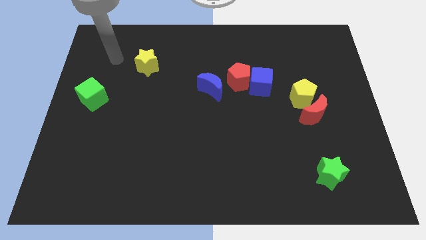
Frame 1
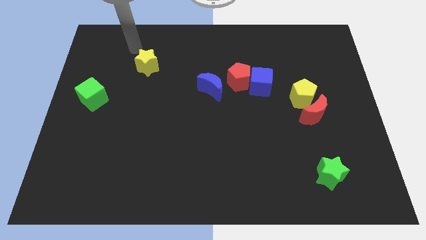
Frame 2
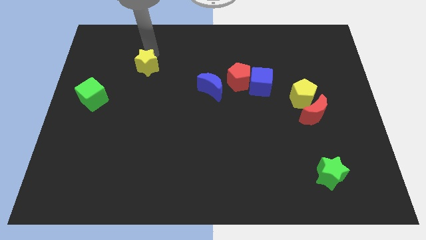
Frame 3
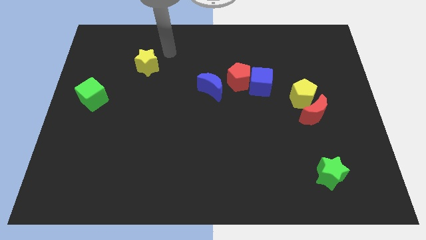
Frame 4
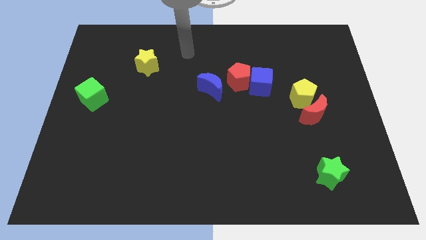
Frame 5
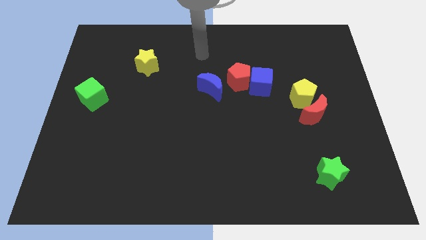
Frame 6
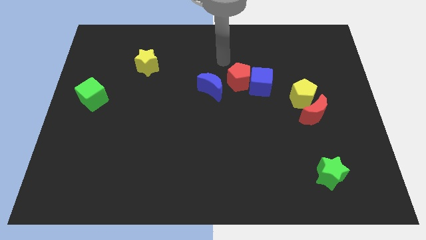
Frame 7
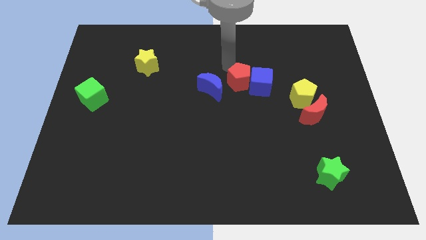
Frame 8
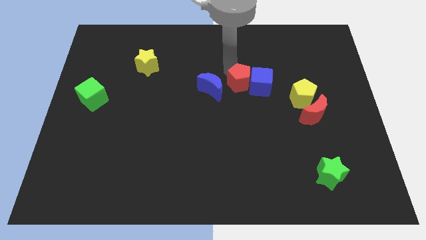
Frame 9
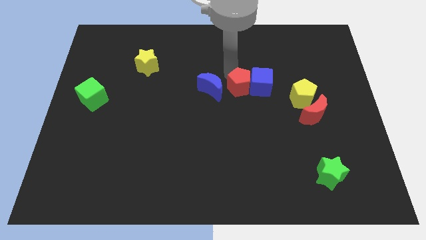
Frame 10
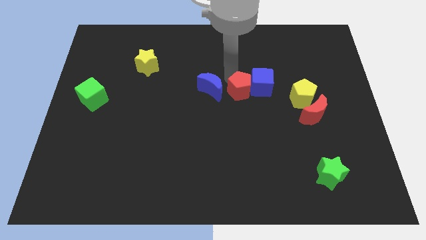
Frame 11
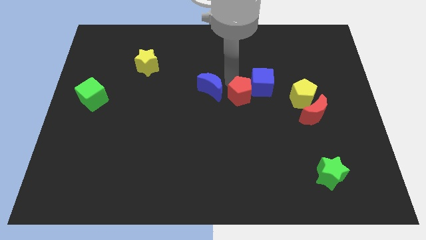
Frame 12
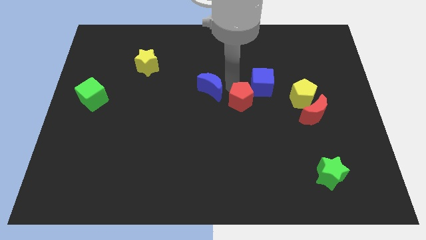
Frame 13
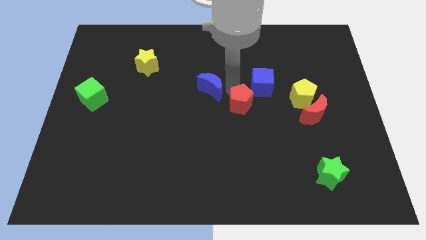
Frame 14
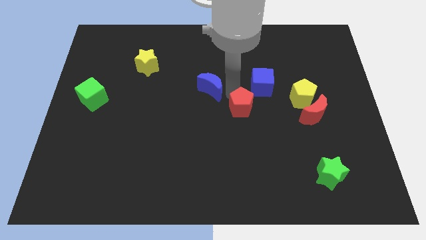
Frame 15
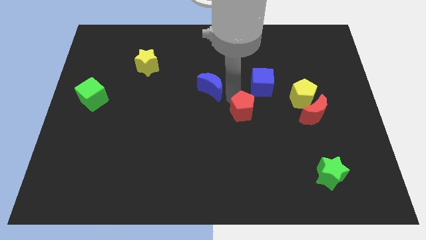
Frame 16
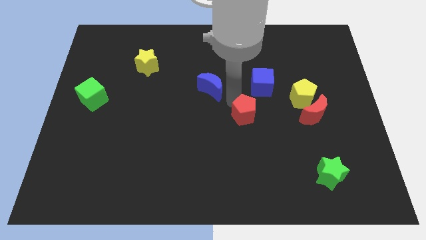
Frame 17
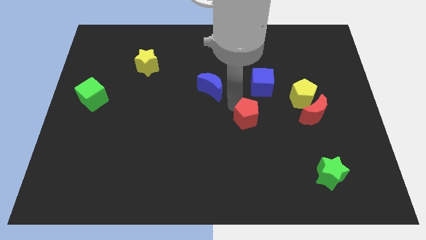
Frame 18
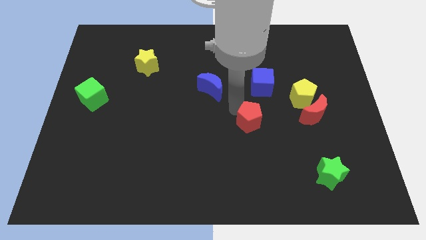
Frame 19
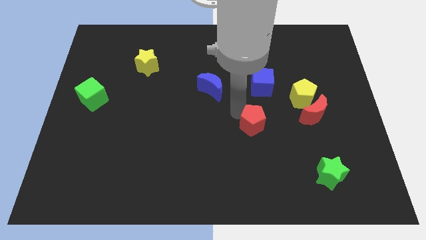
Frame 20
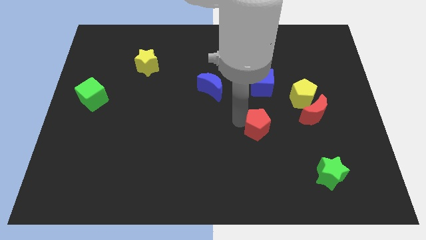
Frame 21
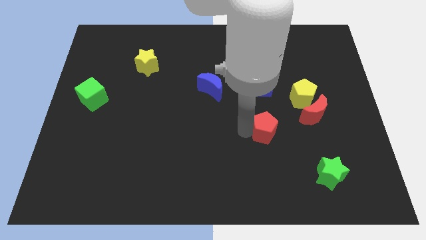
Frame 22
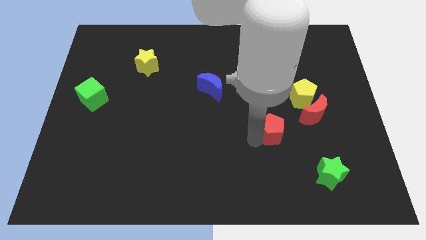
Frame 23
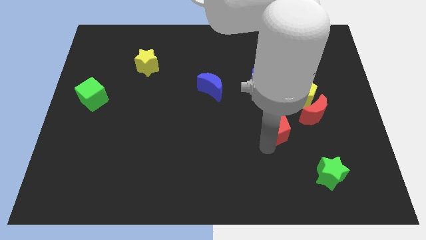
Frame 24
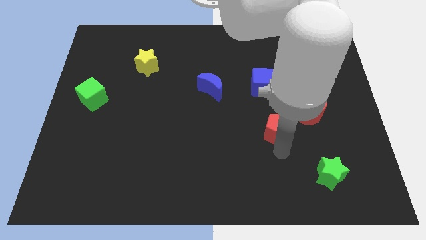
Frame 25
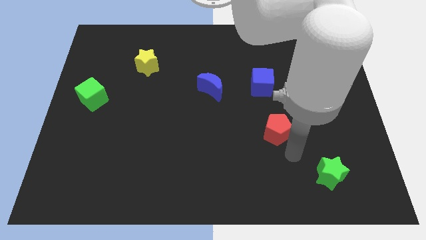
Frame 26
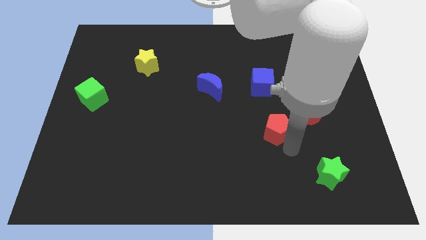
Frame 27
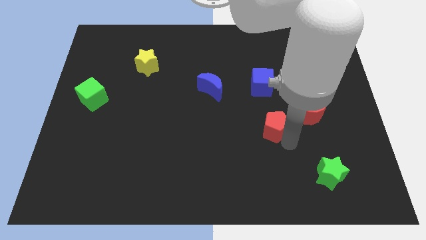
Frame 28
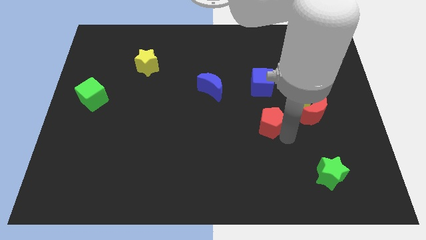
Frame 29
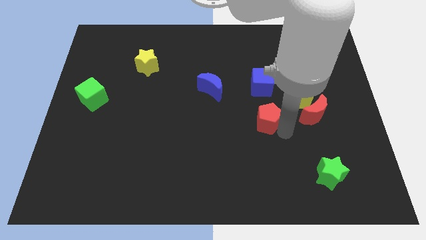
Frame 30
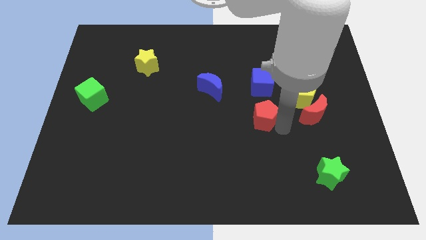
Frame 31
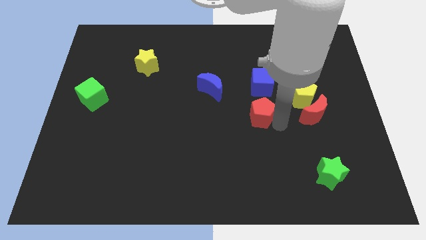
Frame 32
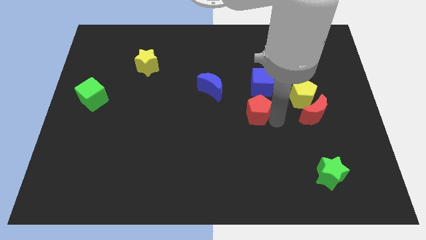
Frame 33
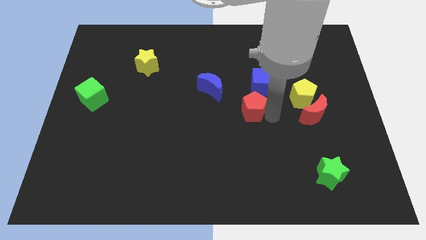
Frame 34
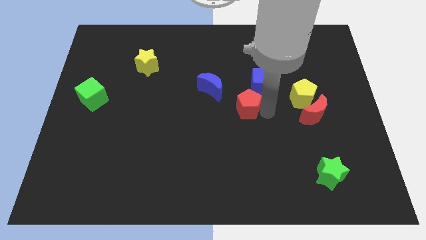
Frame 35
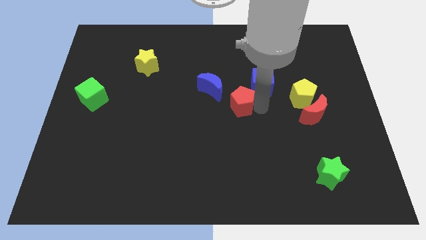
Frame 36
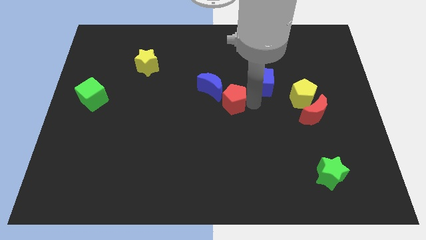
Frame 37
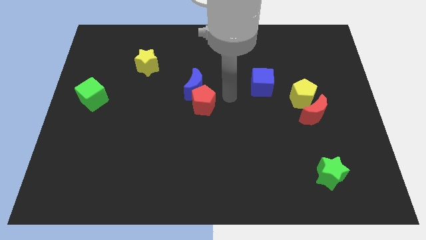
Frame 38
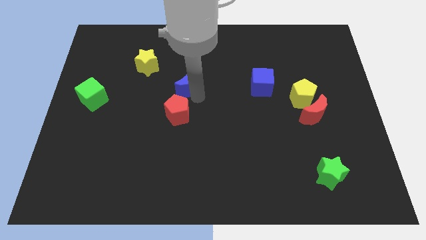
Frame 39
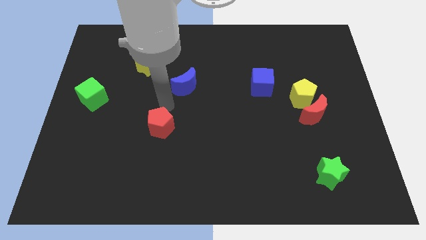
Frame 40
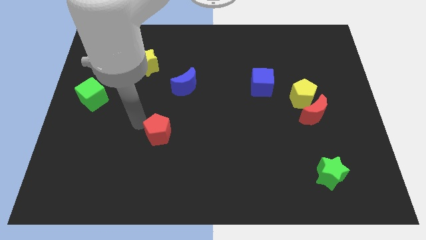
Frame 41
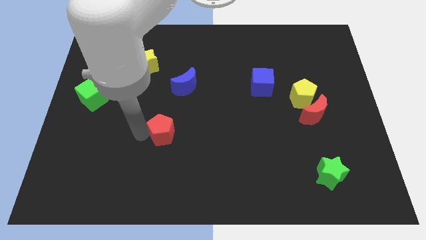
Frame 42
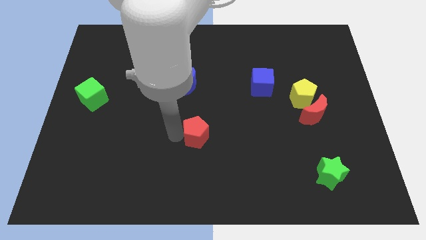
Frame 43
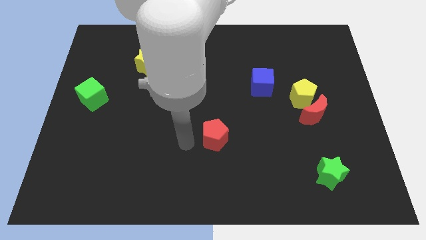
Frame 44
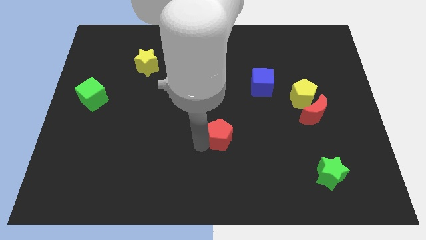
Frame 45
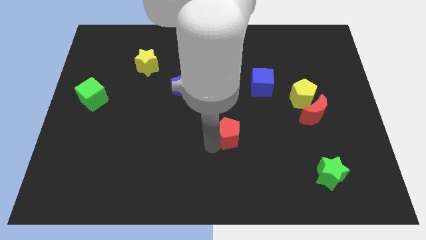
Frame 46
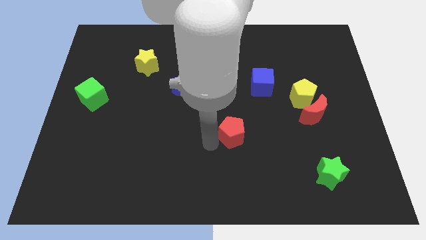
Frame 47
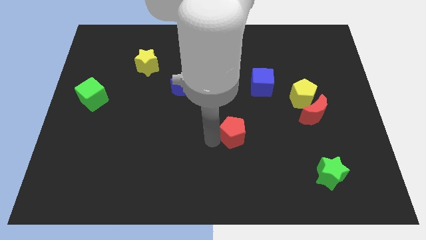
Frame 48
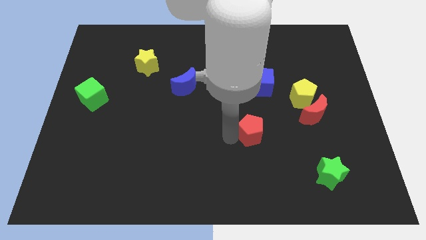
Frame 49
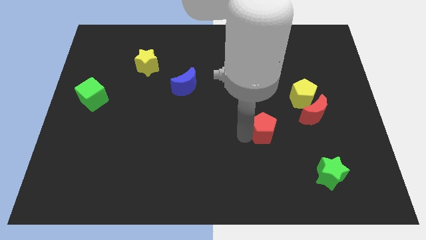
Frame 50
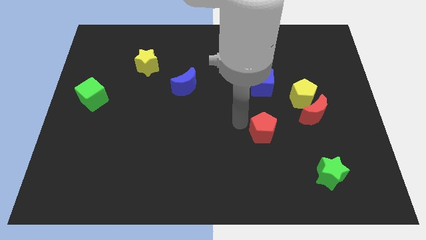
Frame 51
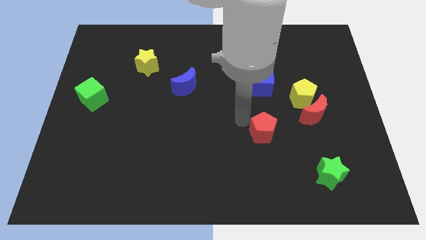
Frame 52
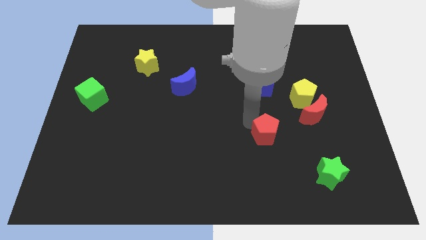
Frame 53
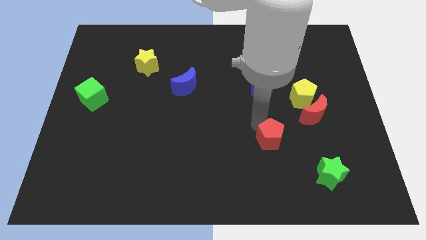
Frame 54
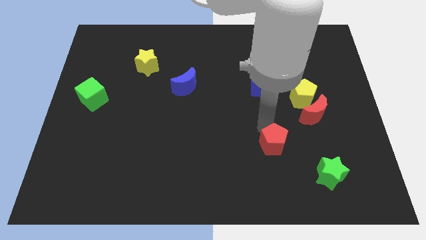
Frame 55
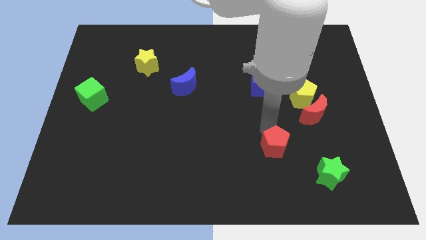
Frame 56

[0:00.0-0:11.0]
slide the red pentagon to the top left of the green star

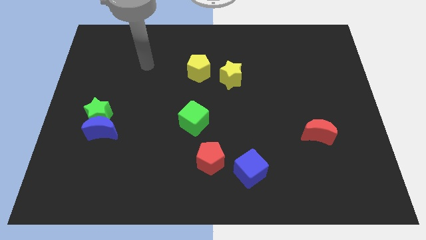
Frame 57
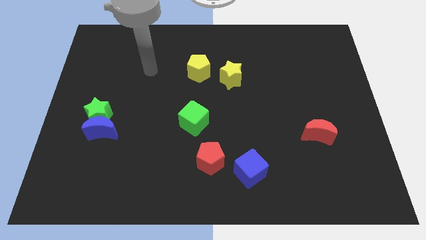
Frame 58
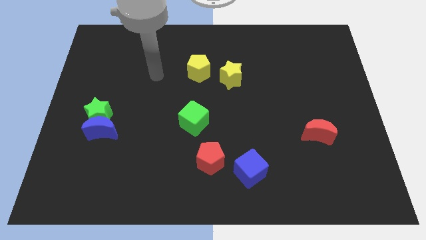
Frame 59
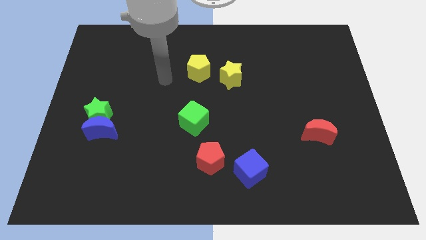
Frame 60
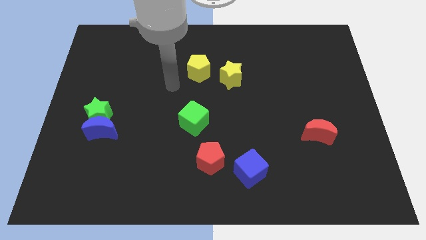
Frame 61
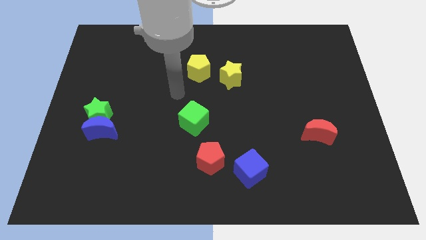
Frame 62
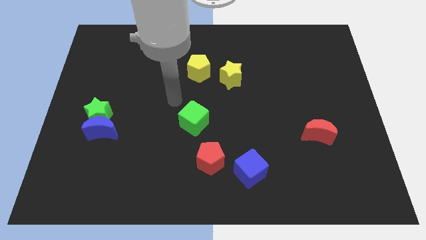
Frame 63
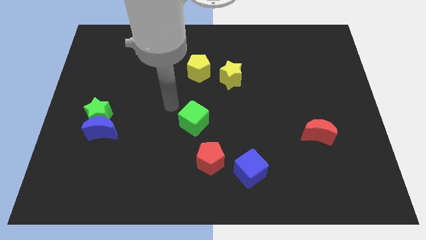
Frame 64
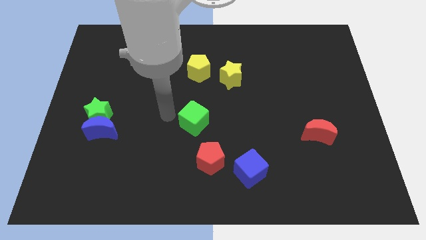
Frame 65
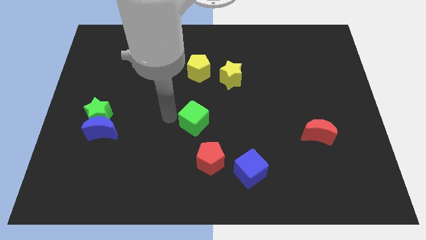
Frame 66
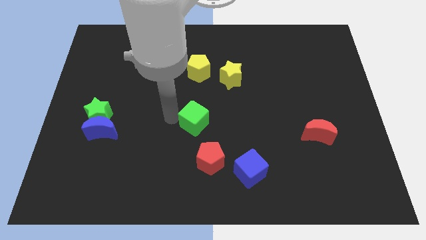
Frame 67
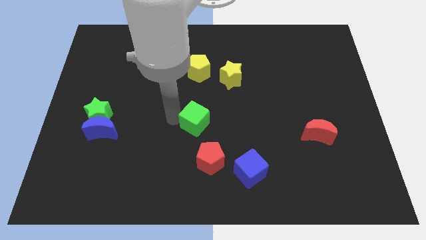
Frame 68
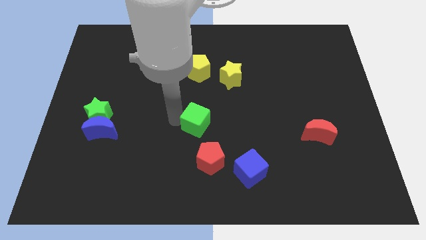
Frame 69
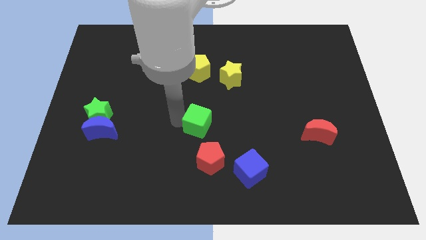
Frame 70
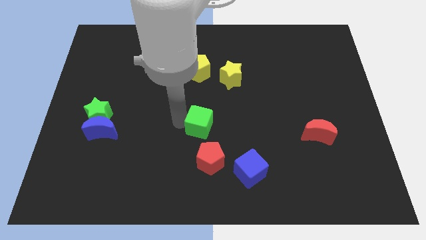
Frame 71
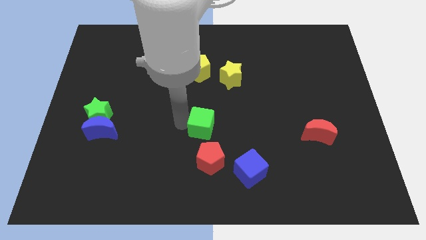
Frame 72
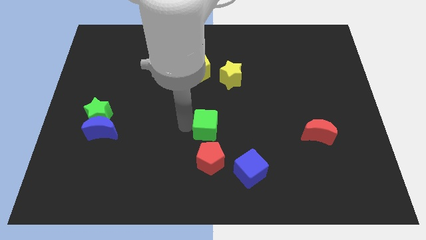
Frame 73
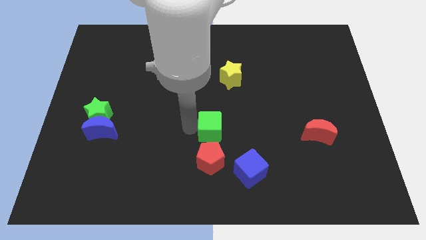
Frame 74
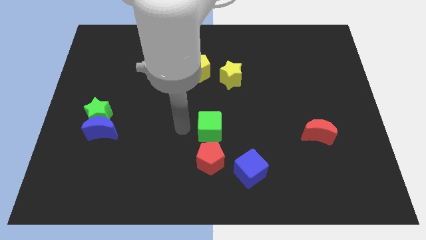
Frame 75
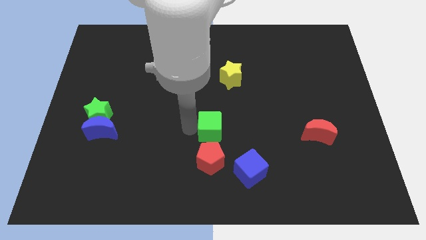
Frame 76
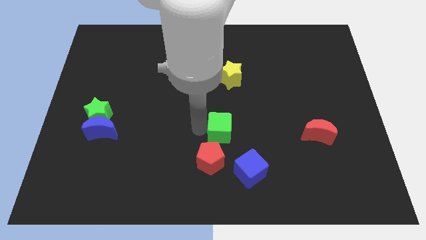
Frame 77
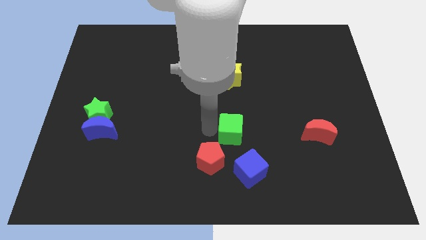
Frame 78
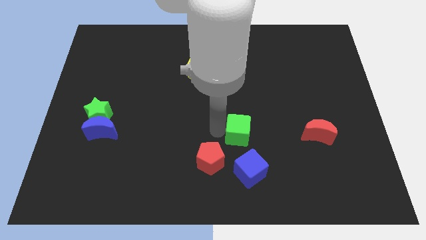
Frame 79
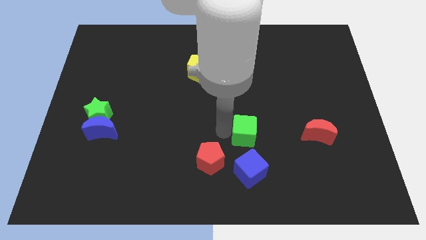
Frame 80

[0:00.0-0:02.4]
put the green cube to the left of the red moon
